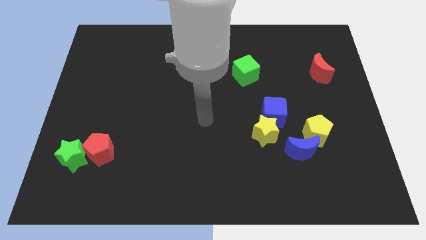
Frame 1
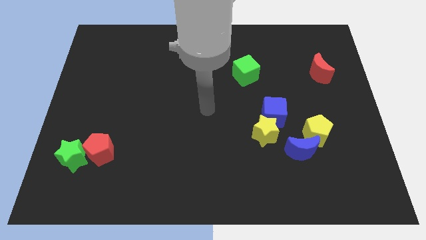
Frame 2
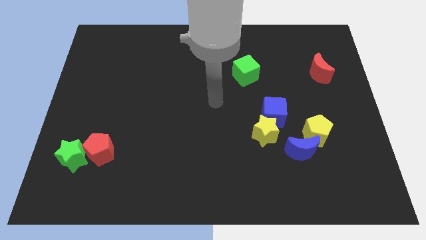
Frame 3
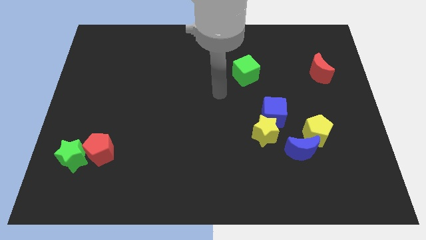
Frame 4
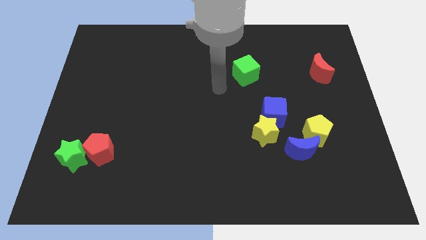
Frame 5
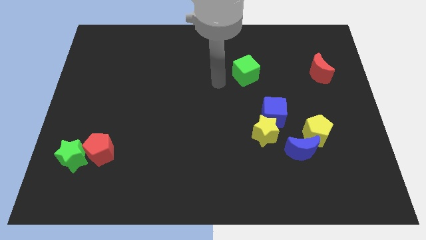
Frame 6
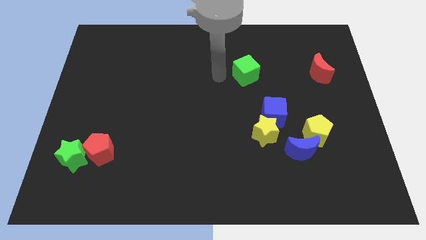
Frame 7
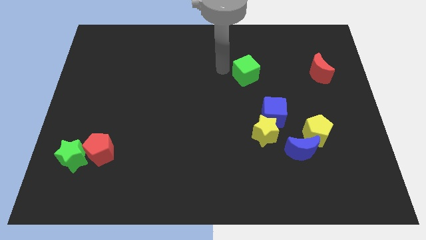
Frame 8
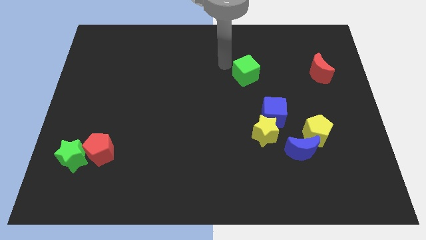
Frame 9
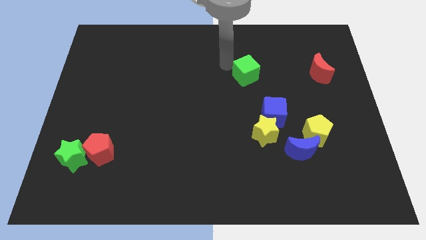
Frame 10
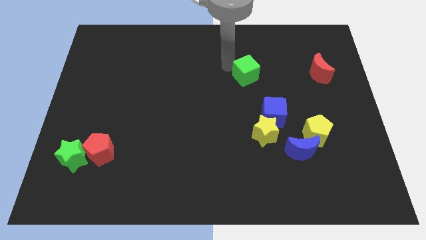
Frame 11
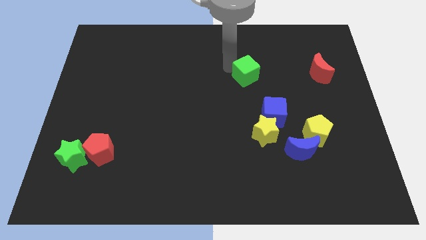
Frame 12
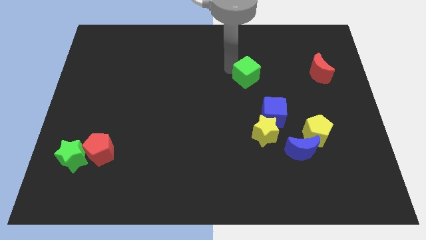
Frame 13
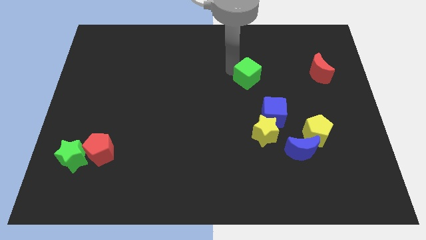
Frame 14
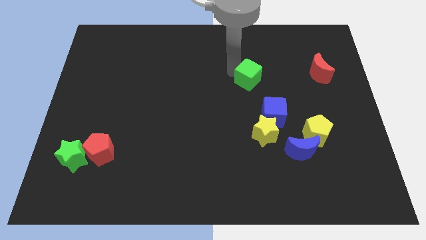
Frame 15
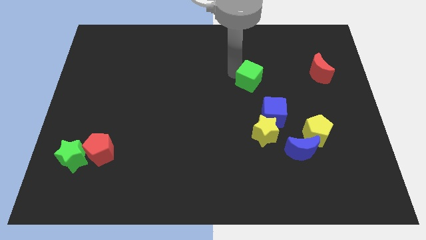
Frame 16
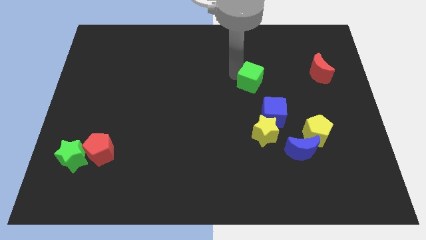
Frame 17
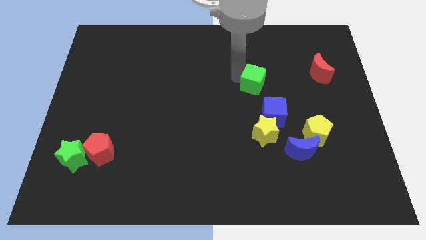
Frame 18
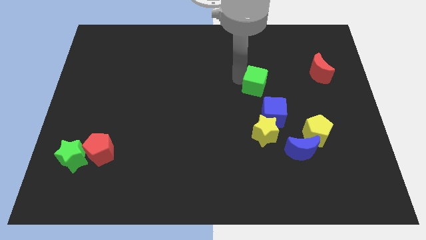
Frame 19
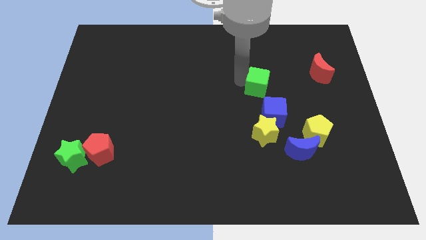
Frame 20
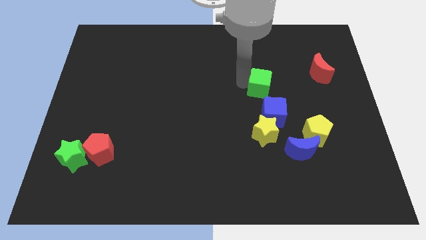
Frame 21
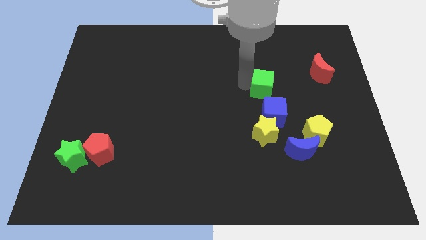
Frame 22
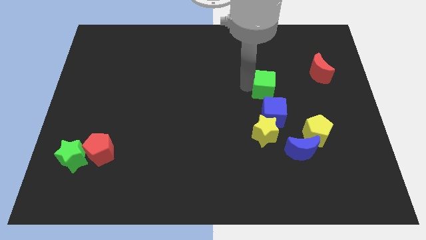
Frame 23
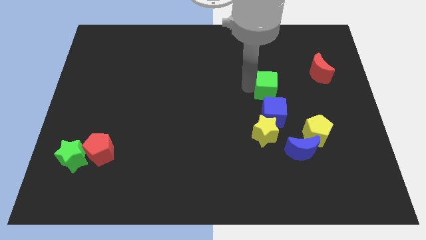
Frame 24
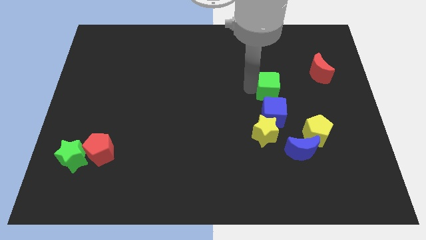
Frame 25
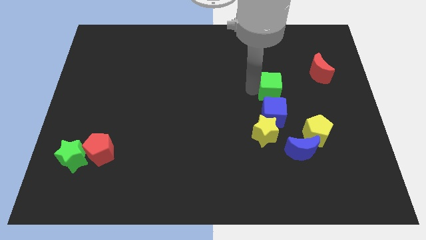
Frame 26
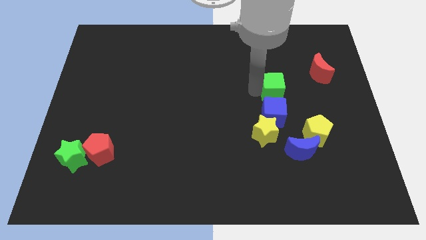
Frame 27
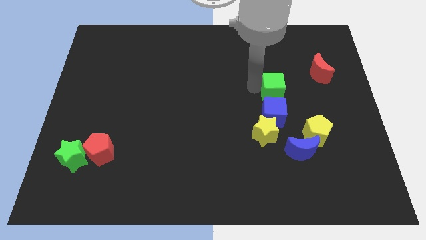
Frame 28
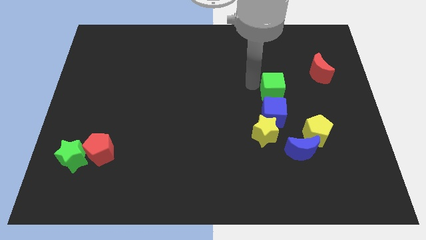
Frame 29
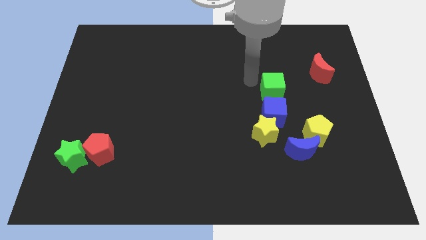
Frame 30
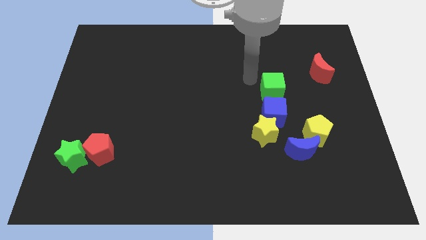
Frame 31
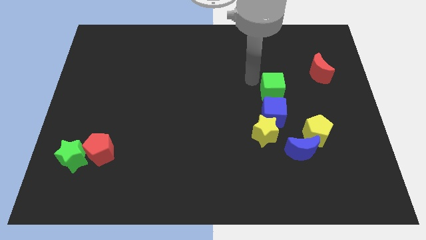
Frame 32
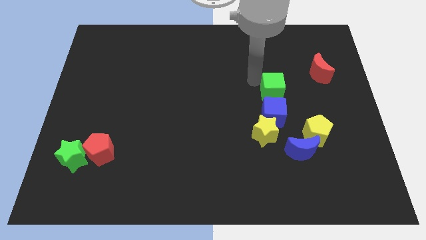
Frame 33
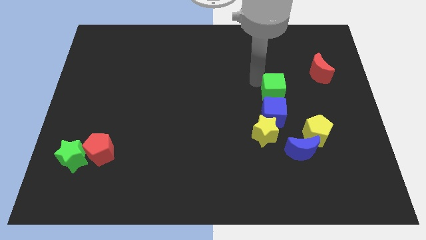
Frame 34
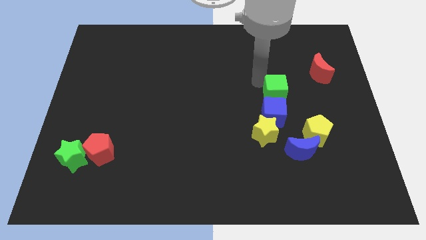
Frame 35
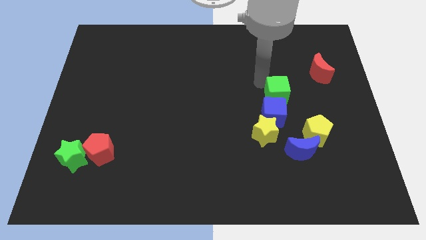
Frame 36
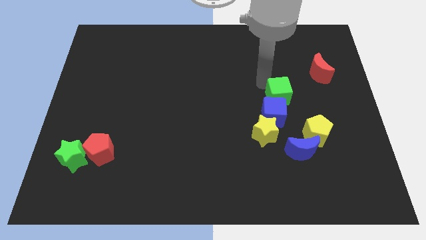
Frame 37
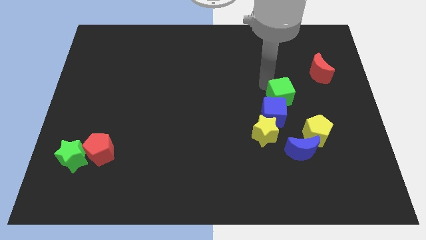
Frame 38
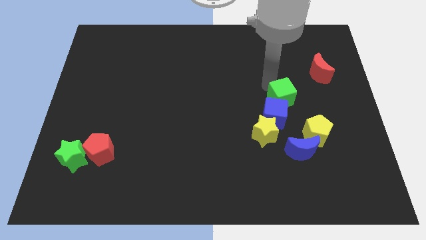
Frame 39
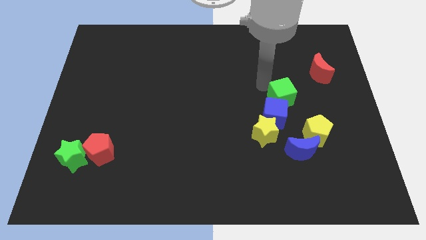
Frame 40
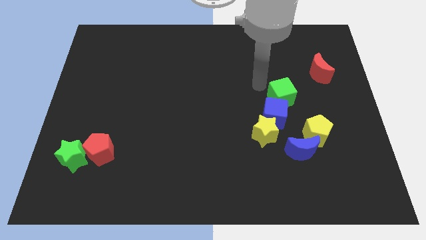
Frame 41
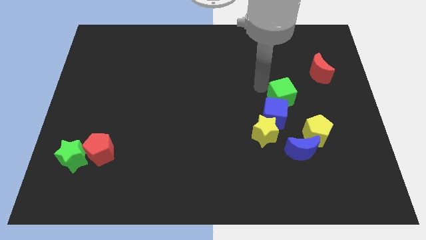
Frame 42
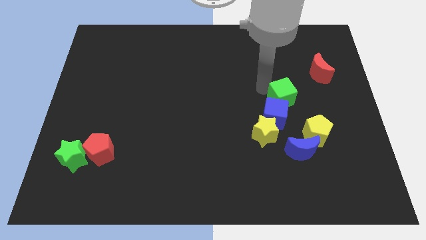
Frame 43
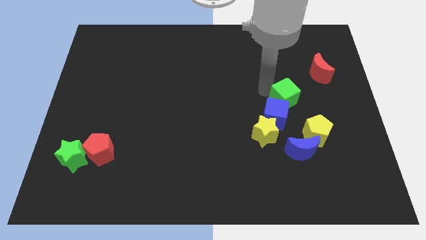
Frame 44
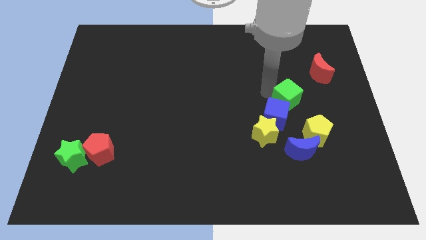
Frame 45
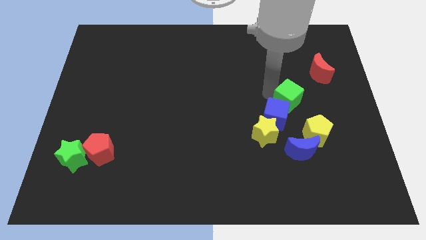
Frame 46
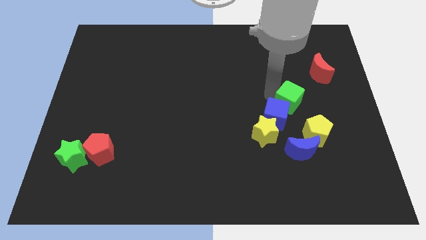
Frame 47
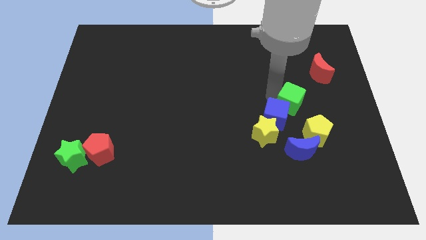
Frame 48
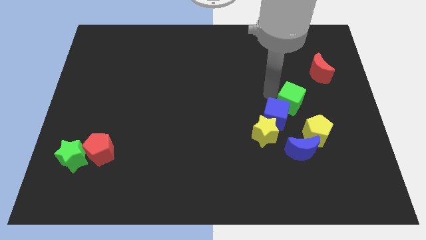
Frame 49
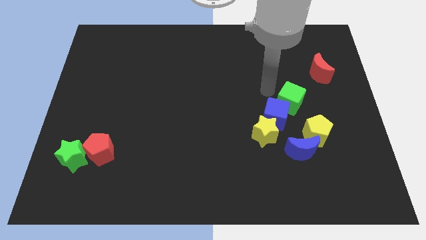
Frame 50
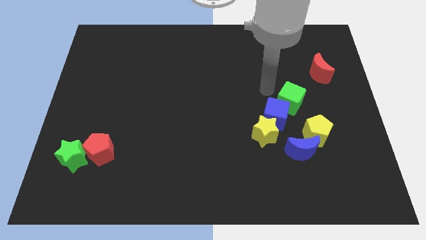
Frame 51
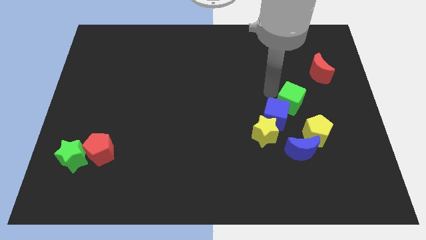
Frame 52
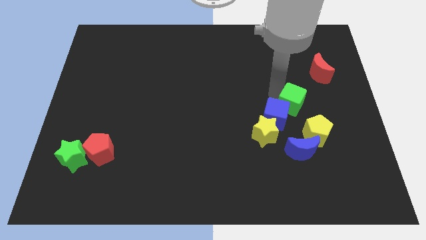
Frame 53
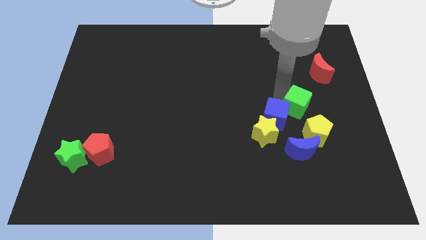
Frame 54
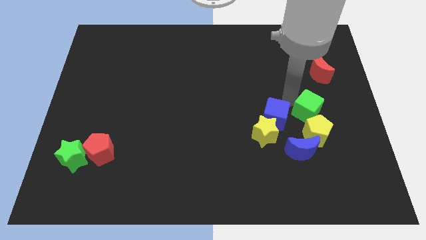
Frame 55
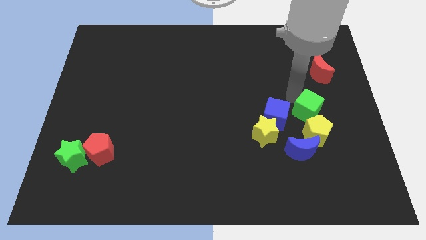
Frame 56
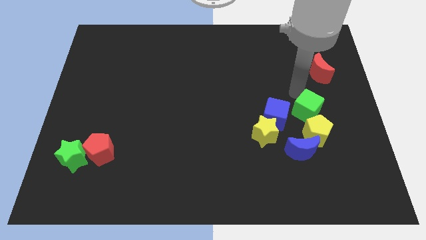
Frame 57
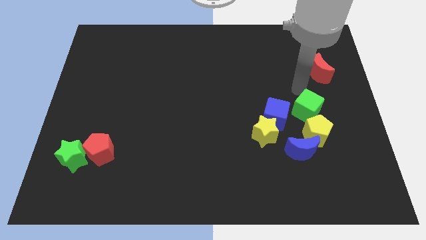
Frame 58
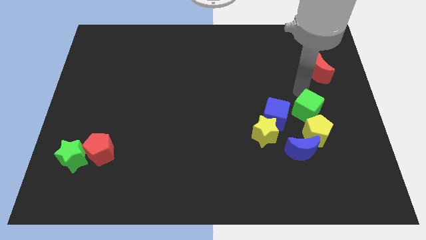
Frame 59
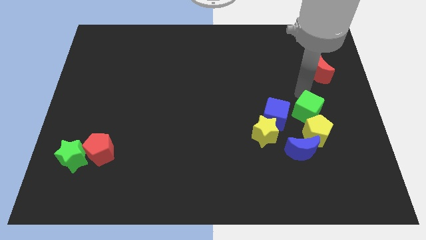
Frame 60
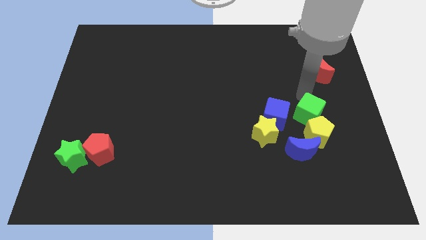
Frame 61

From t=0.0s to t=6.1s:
push the green cube towards the yellow pentagon

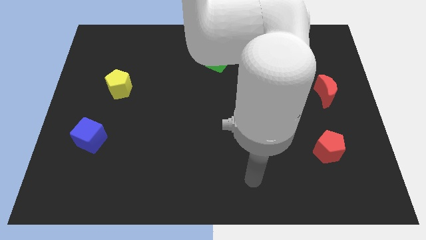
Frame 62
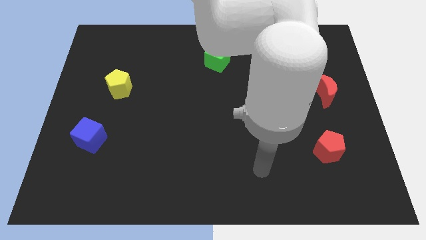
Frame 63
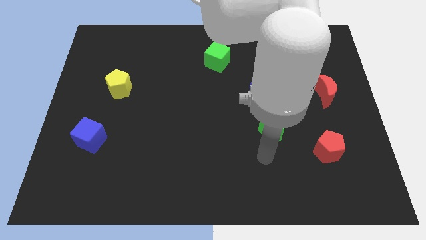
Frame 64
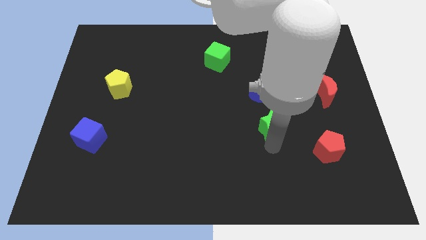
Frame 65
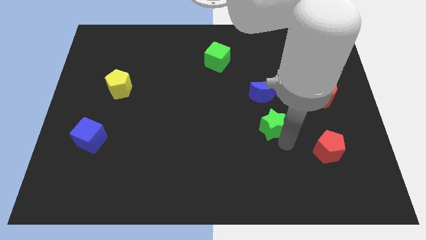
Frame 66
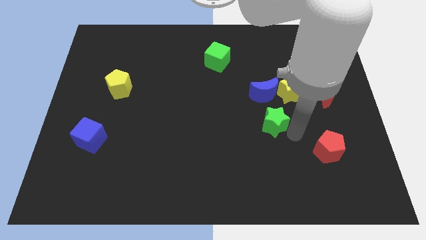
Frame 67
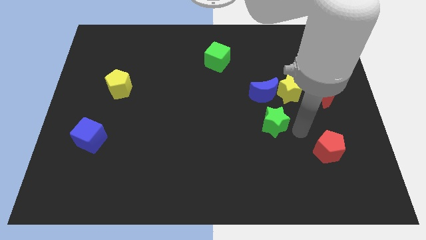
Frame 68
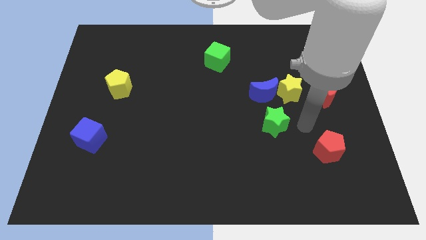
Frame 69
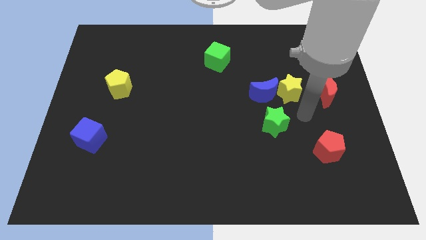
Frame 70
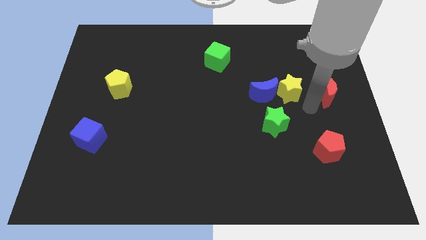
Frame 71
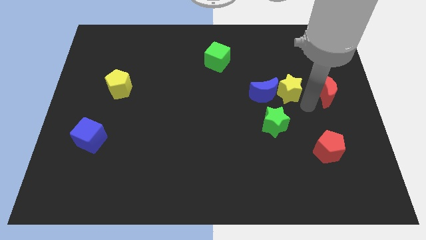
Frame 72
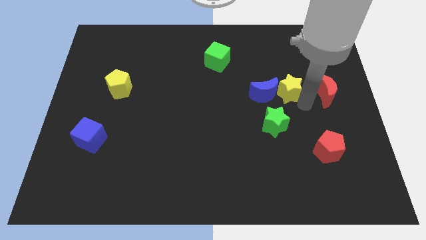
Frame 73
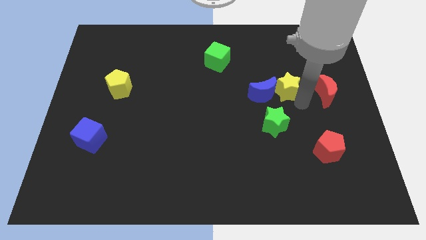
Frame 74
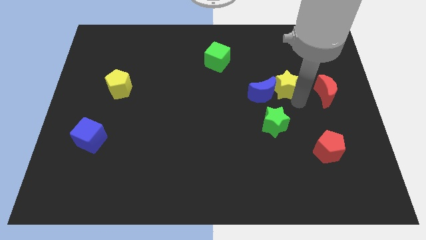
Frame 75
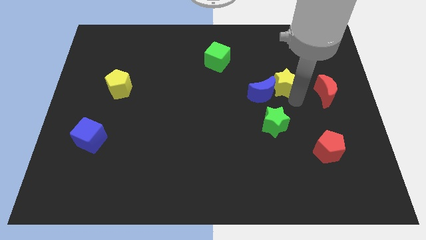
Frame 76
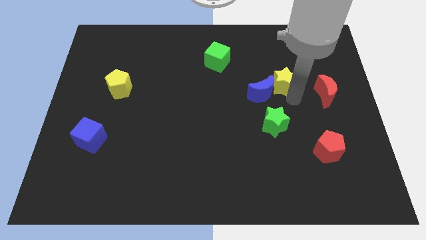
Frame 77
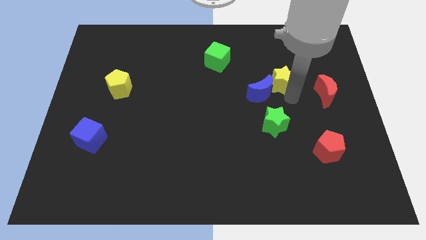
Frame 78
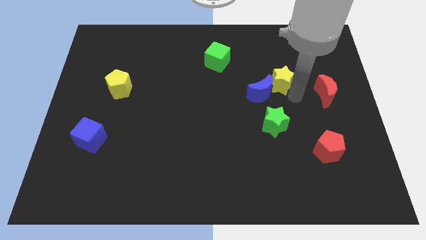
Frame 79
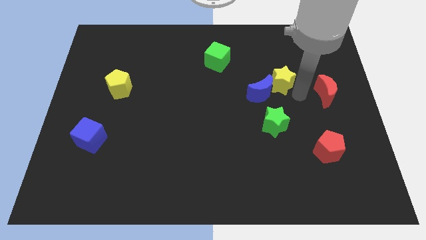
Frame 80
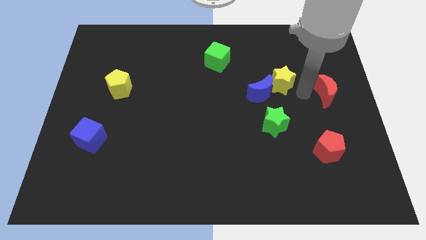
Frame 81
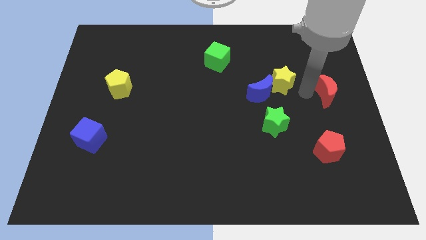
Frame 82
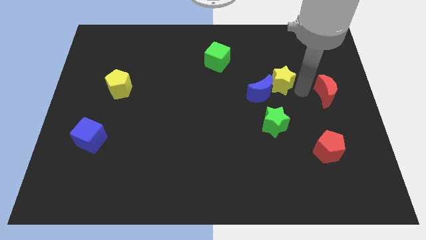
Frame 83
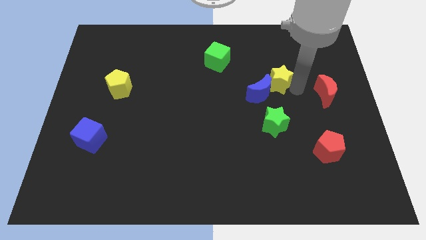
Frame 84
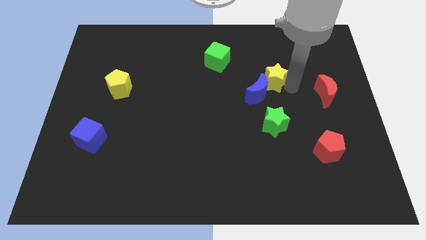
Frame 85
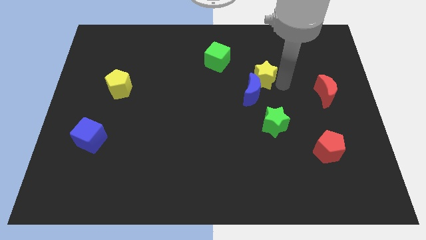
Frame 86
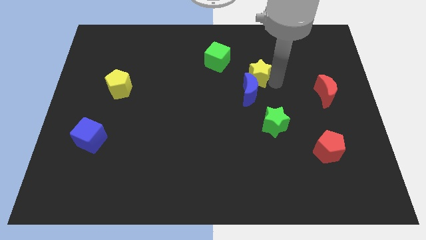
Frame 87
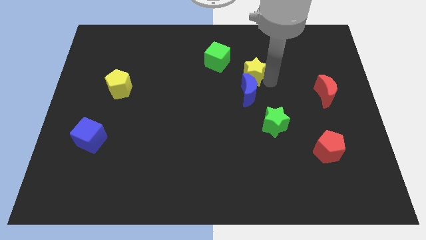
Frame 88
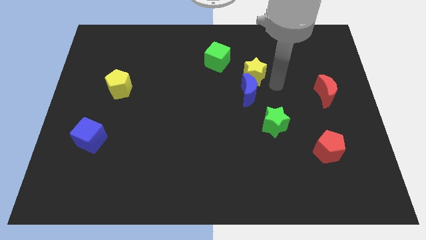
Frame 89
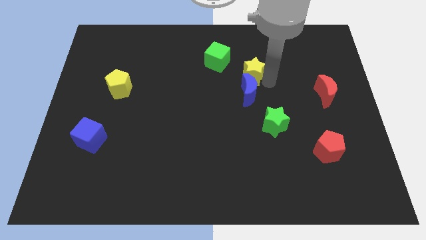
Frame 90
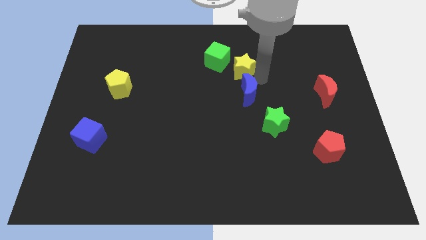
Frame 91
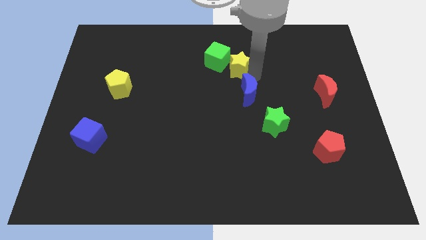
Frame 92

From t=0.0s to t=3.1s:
put the yellow star close to the green cube
